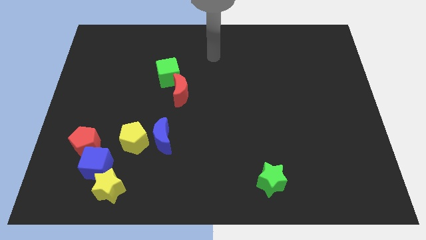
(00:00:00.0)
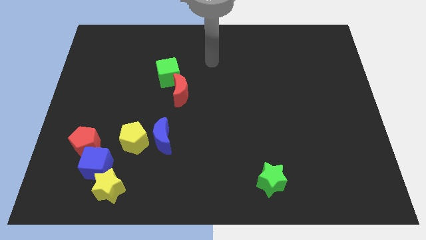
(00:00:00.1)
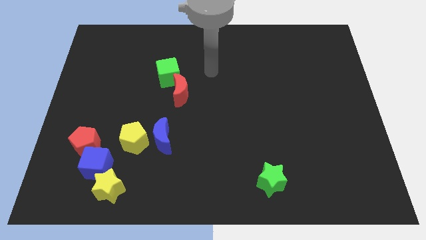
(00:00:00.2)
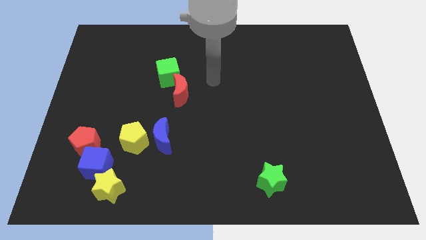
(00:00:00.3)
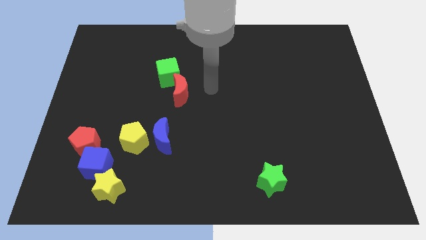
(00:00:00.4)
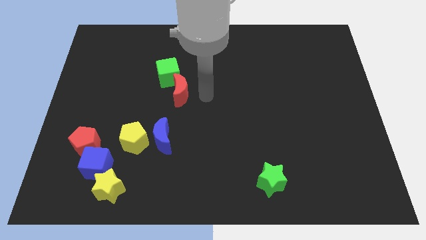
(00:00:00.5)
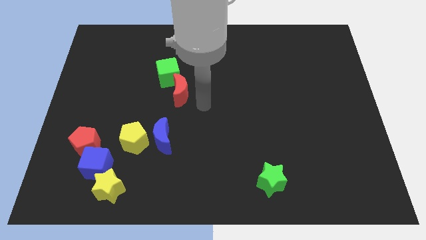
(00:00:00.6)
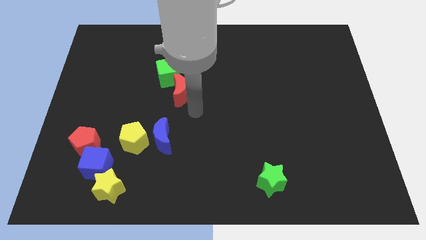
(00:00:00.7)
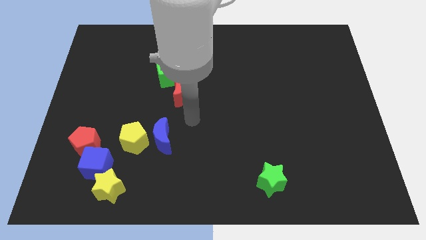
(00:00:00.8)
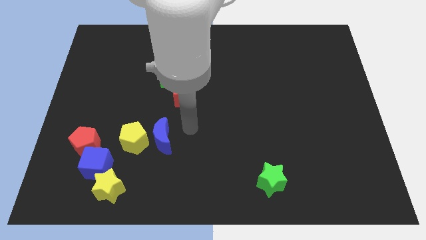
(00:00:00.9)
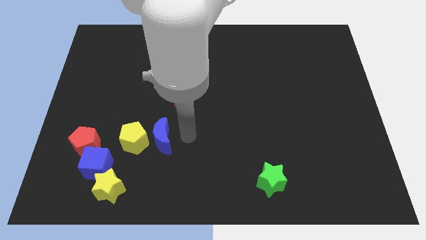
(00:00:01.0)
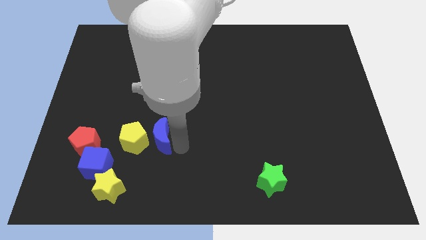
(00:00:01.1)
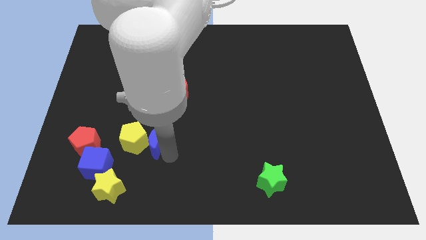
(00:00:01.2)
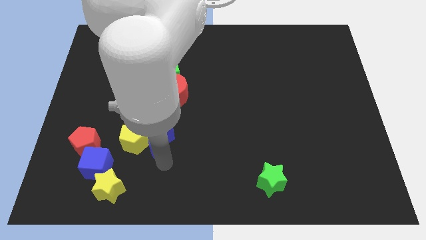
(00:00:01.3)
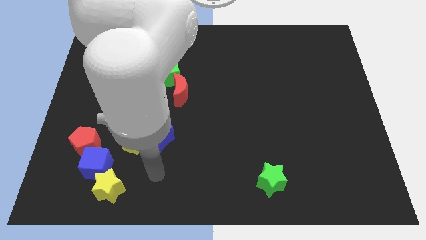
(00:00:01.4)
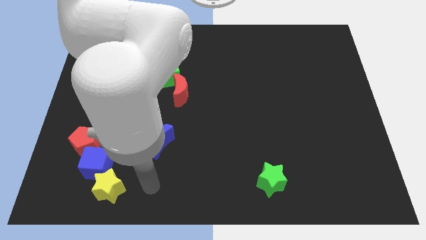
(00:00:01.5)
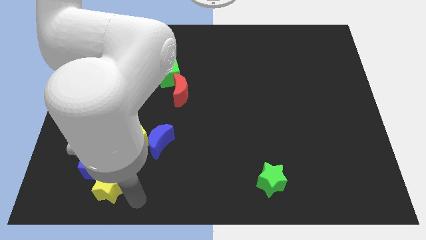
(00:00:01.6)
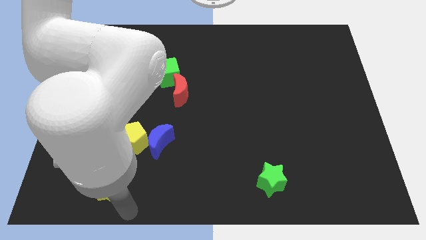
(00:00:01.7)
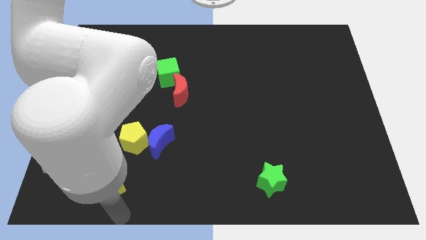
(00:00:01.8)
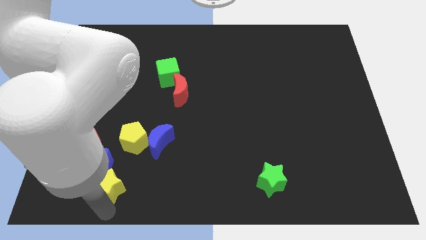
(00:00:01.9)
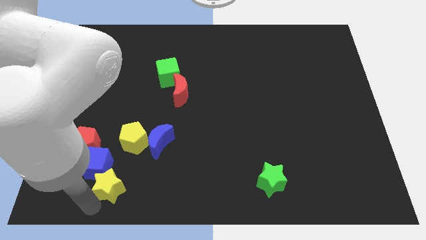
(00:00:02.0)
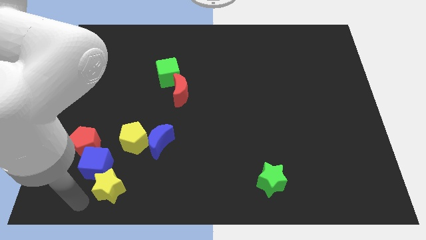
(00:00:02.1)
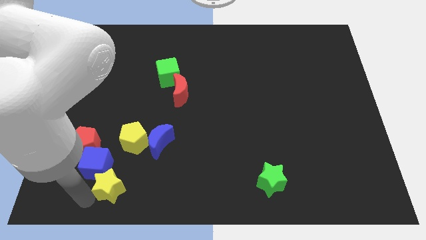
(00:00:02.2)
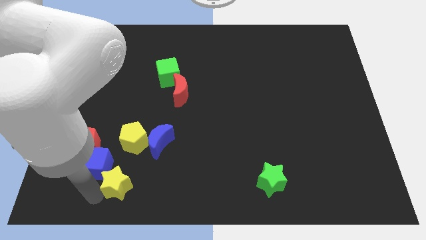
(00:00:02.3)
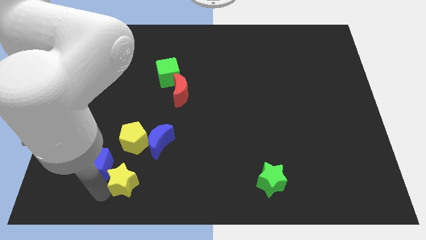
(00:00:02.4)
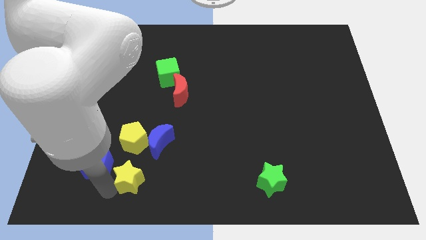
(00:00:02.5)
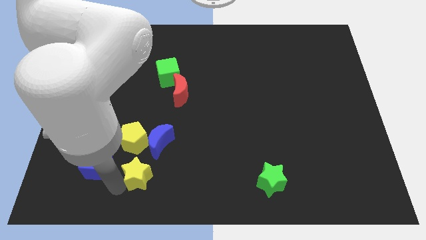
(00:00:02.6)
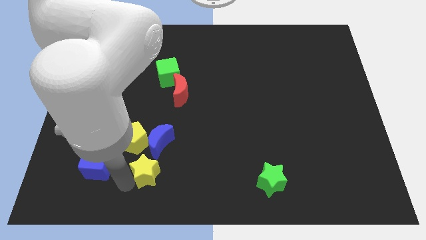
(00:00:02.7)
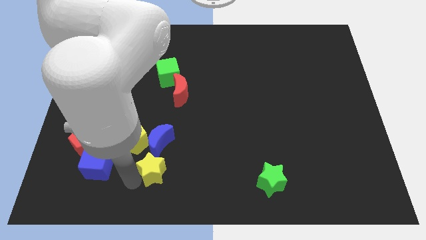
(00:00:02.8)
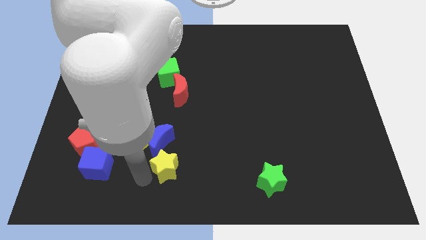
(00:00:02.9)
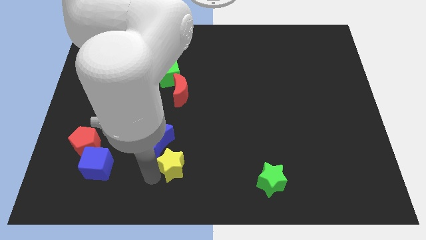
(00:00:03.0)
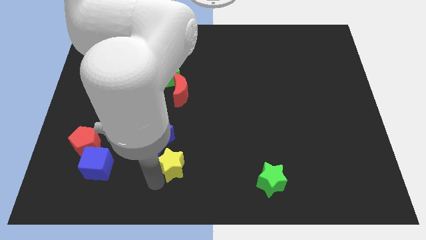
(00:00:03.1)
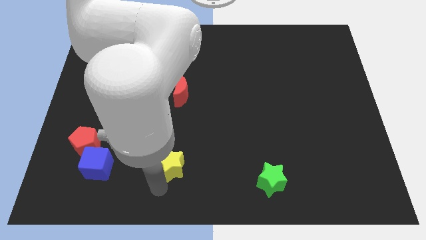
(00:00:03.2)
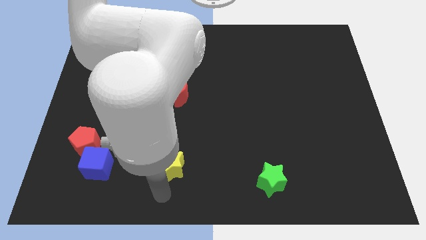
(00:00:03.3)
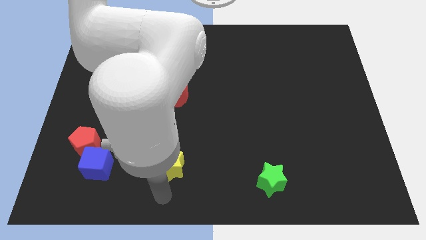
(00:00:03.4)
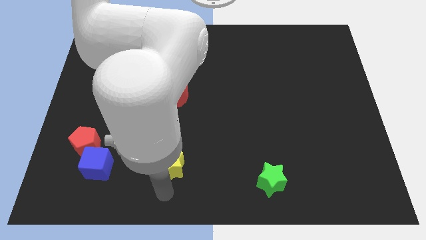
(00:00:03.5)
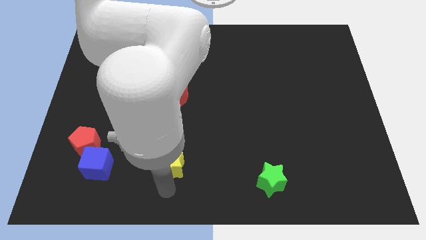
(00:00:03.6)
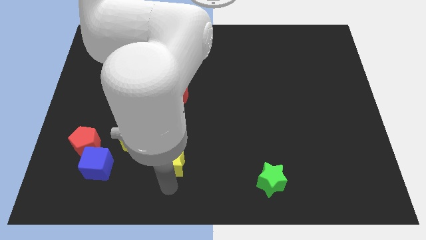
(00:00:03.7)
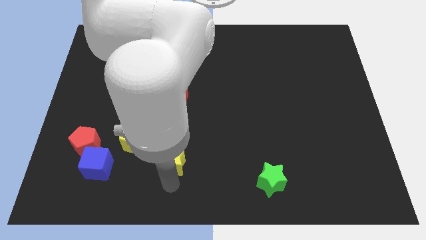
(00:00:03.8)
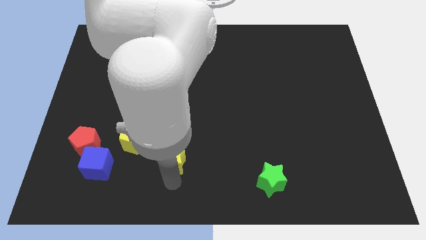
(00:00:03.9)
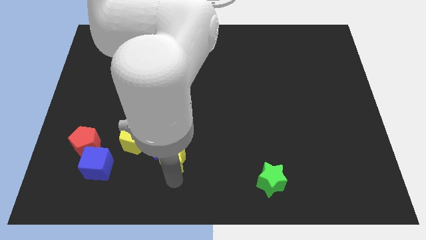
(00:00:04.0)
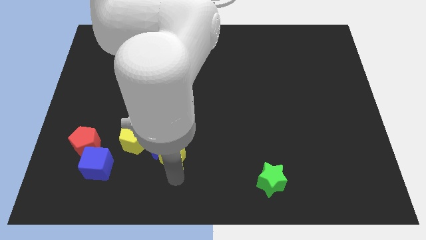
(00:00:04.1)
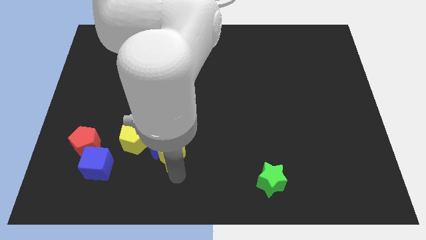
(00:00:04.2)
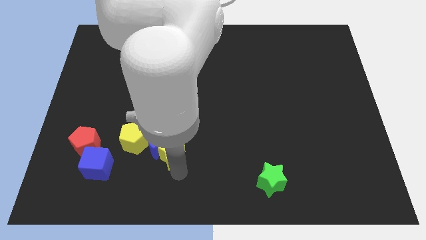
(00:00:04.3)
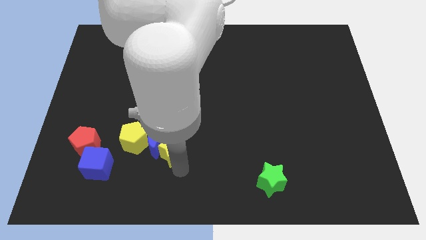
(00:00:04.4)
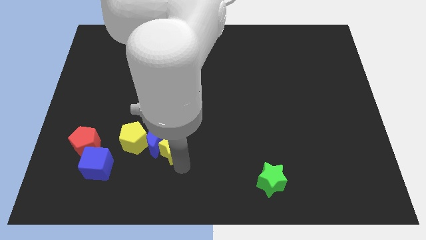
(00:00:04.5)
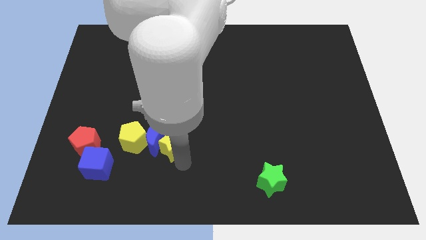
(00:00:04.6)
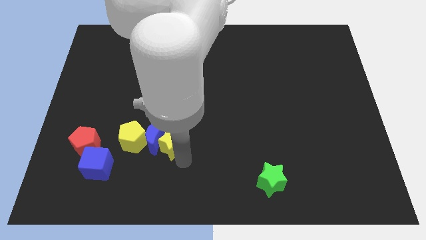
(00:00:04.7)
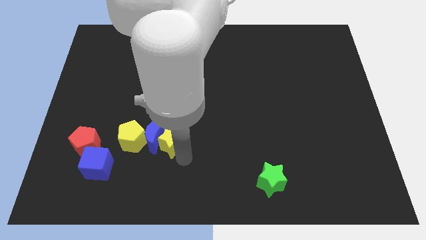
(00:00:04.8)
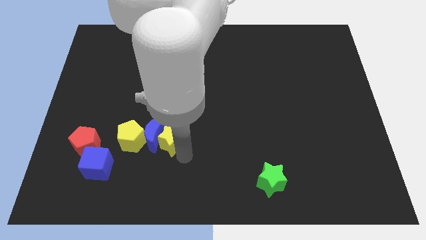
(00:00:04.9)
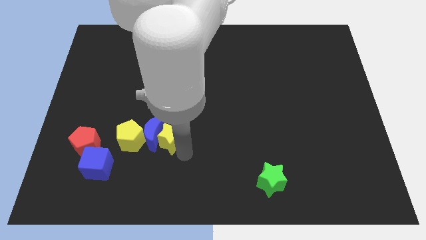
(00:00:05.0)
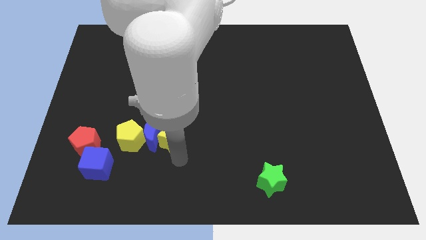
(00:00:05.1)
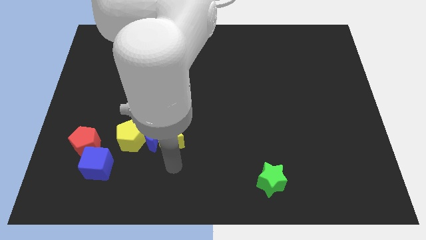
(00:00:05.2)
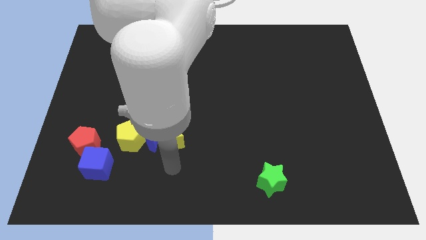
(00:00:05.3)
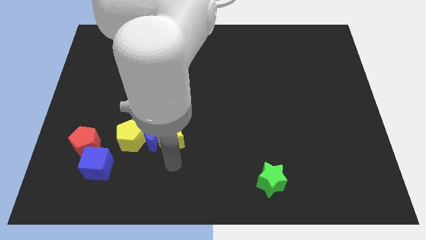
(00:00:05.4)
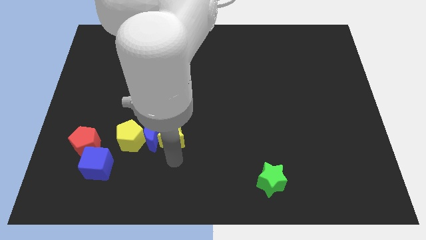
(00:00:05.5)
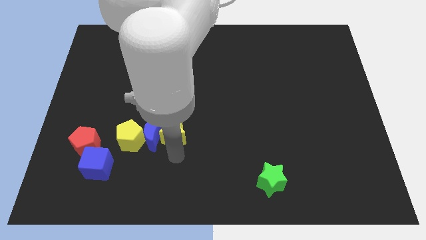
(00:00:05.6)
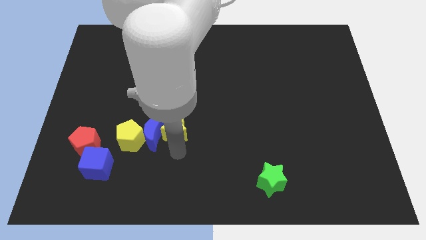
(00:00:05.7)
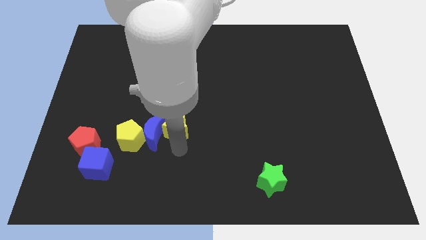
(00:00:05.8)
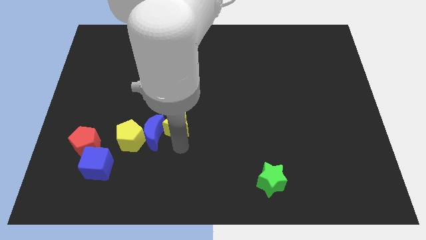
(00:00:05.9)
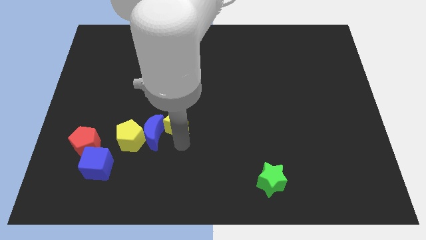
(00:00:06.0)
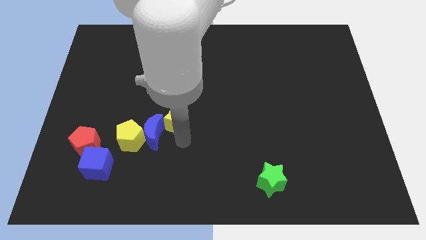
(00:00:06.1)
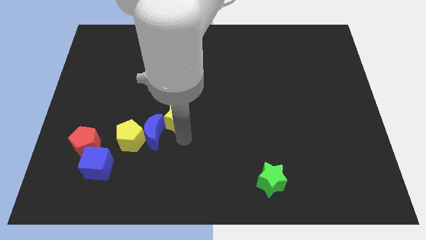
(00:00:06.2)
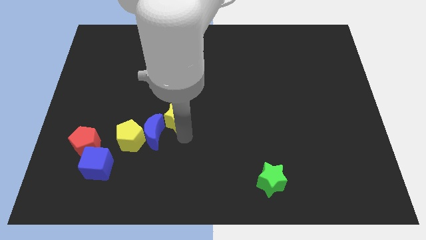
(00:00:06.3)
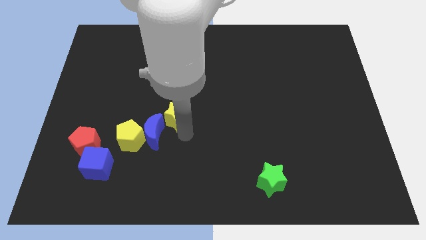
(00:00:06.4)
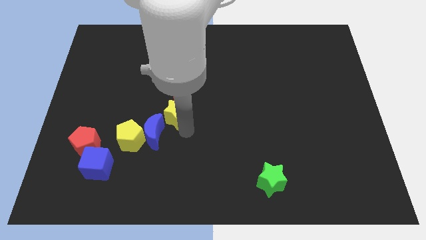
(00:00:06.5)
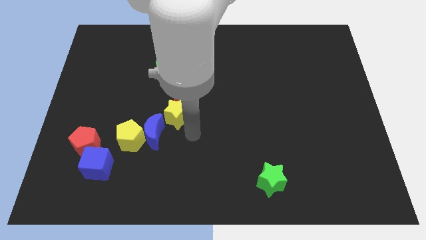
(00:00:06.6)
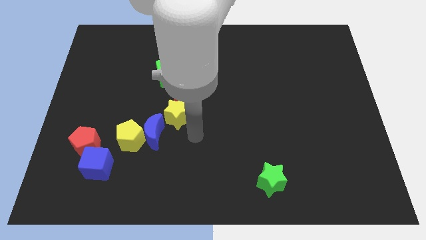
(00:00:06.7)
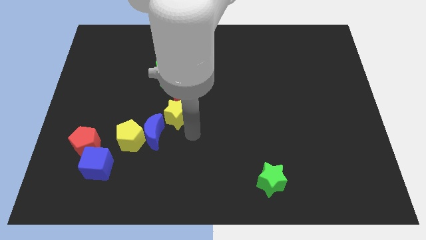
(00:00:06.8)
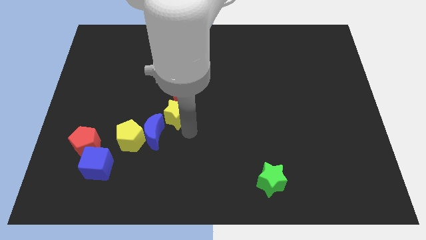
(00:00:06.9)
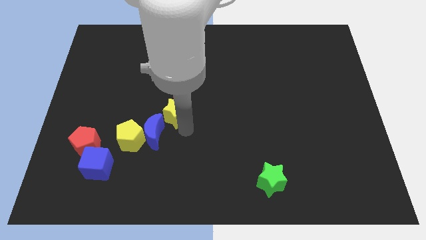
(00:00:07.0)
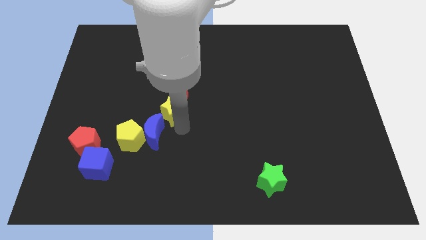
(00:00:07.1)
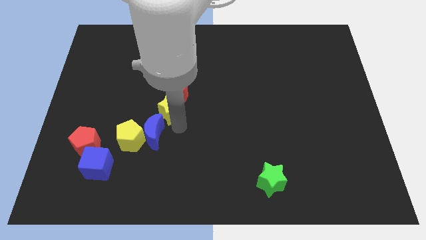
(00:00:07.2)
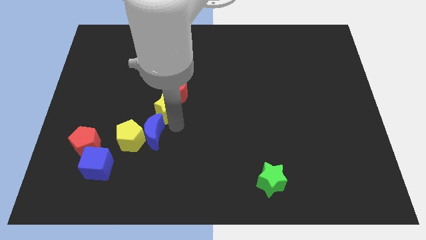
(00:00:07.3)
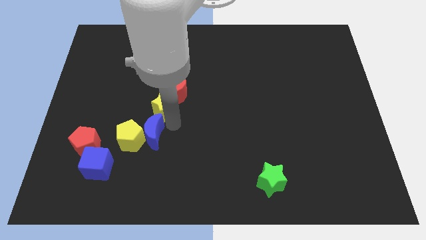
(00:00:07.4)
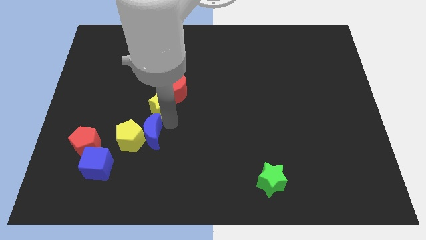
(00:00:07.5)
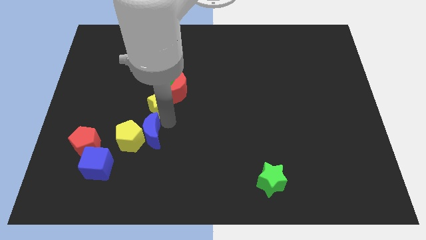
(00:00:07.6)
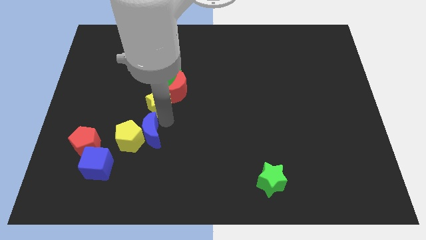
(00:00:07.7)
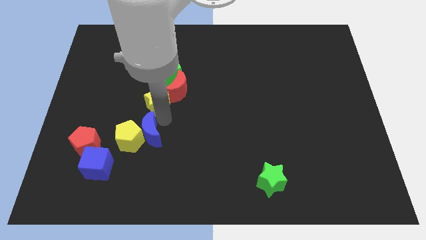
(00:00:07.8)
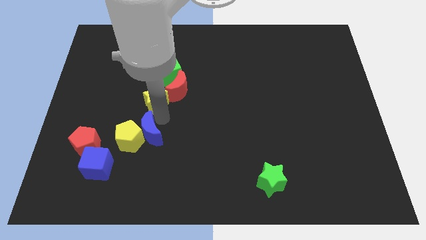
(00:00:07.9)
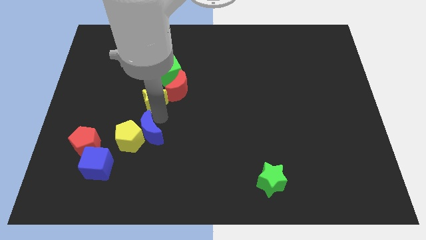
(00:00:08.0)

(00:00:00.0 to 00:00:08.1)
slide the yellow star upwards
